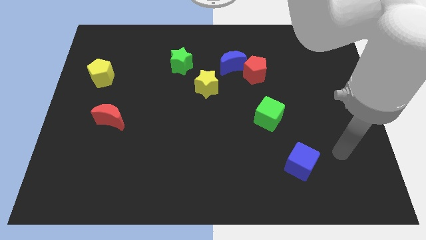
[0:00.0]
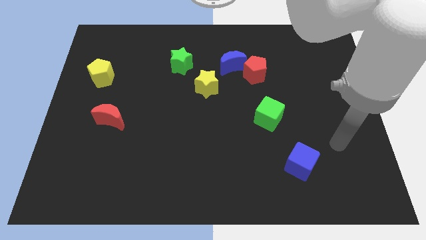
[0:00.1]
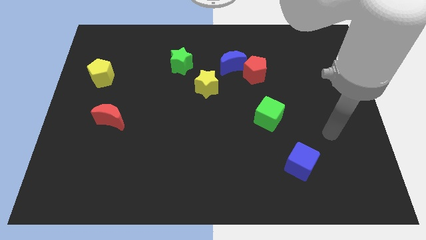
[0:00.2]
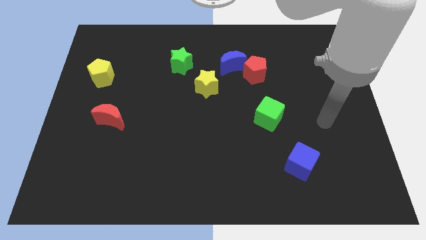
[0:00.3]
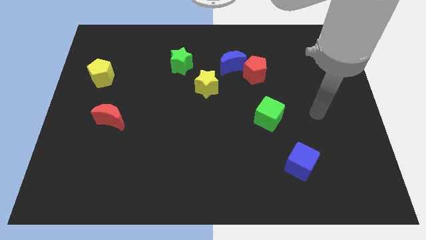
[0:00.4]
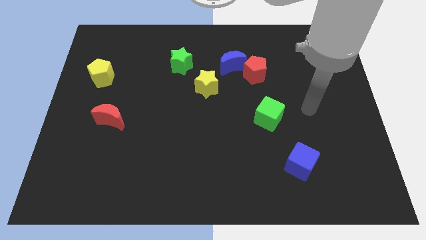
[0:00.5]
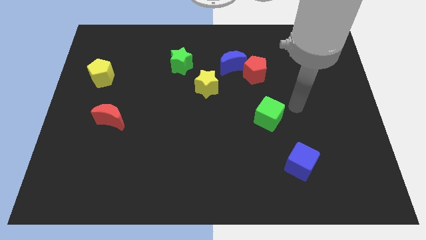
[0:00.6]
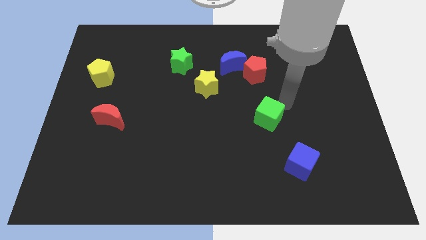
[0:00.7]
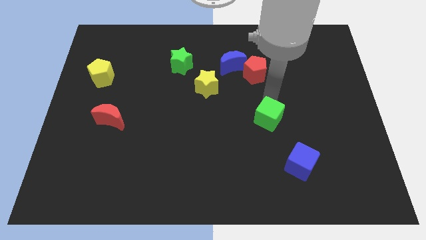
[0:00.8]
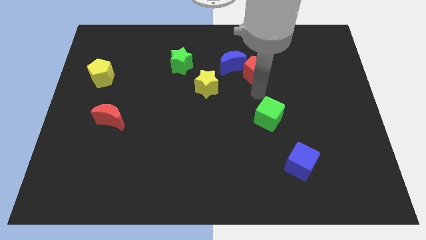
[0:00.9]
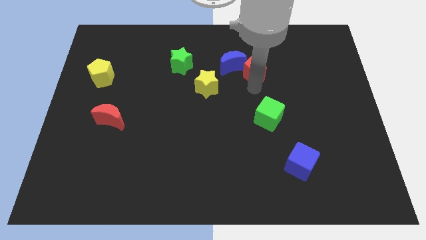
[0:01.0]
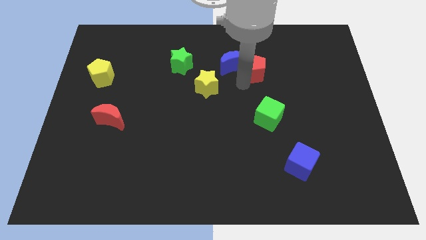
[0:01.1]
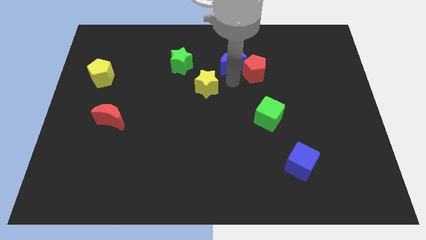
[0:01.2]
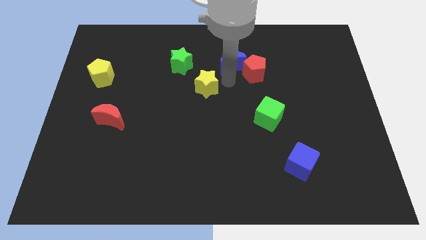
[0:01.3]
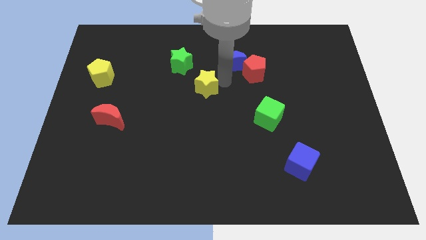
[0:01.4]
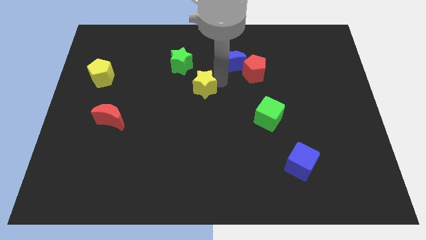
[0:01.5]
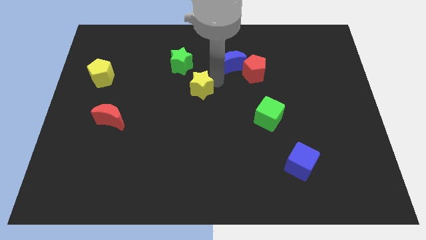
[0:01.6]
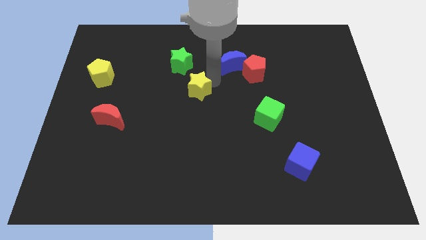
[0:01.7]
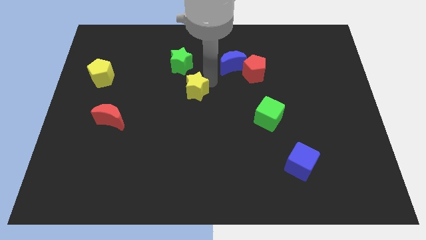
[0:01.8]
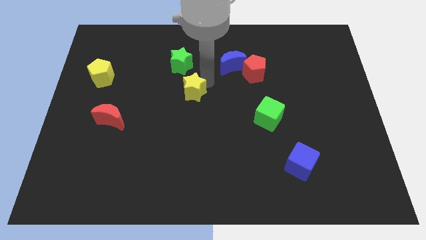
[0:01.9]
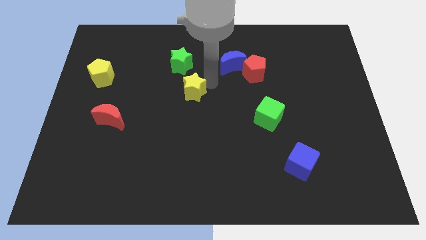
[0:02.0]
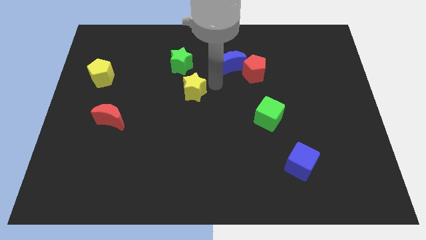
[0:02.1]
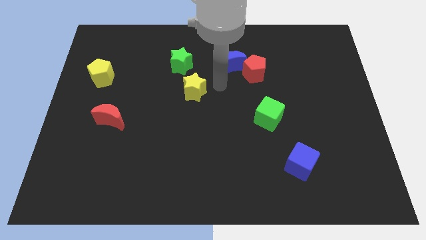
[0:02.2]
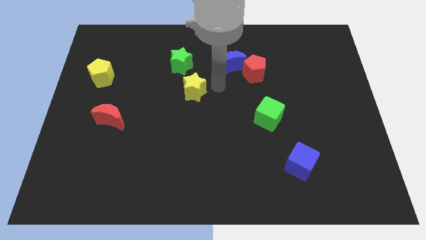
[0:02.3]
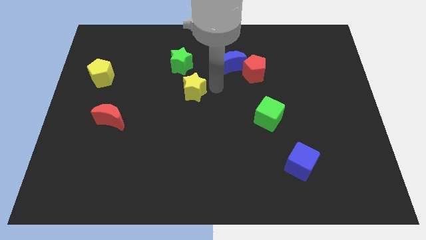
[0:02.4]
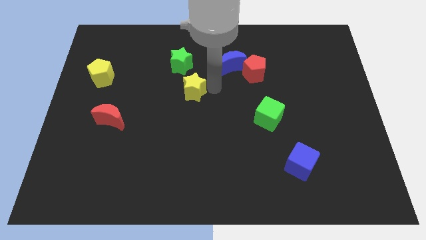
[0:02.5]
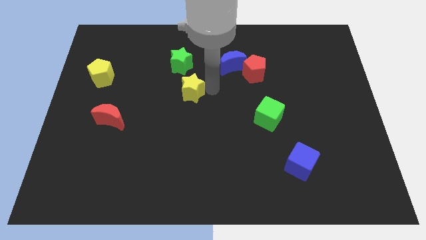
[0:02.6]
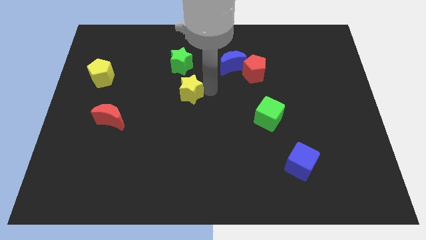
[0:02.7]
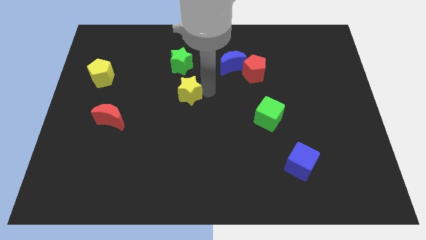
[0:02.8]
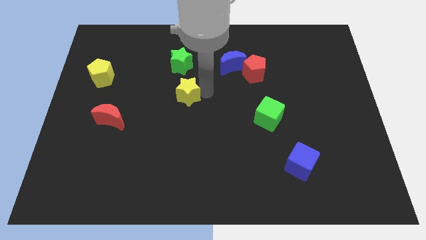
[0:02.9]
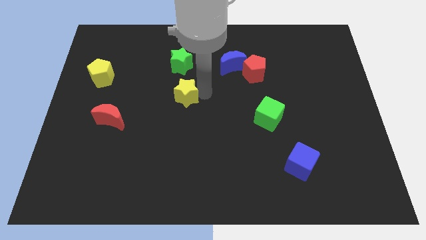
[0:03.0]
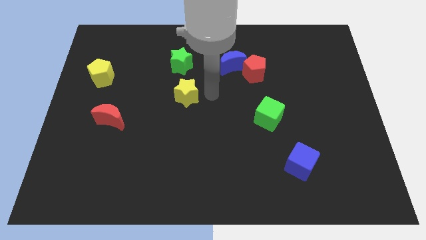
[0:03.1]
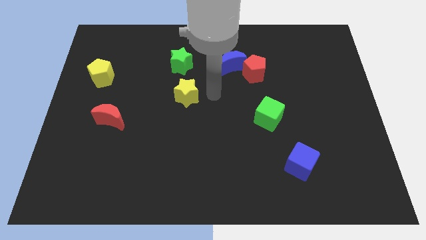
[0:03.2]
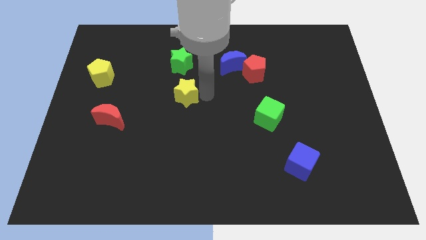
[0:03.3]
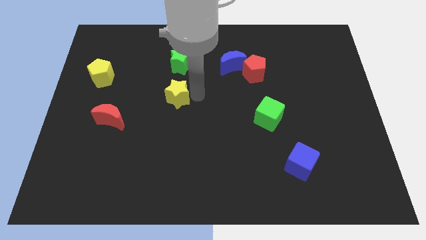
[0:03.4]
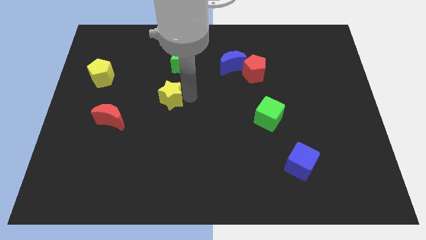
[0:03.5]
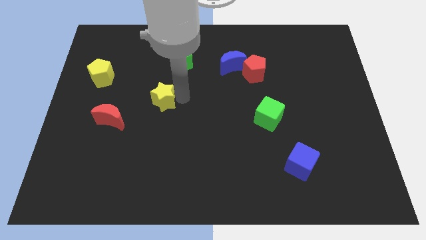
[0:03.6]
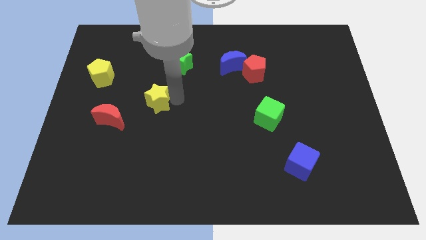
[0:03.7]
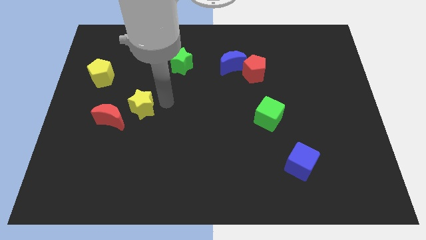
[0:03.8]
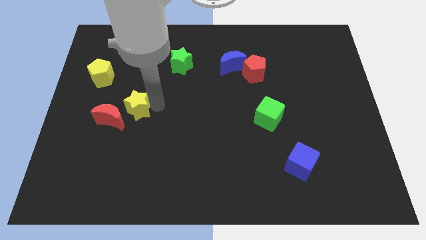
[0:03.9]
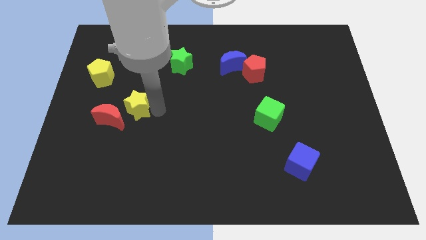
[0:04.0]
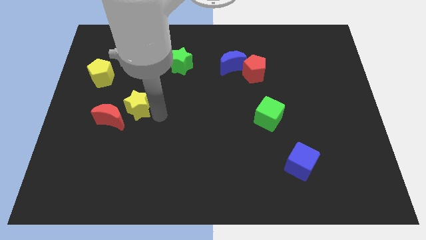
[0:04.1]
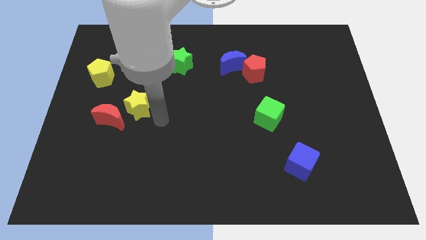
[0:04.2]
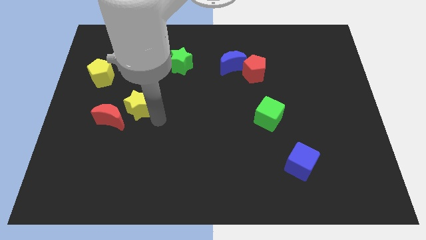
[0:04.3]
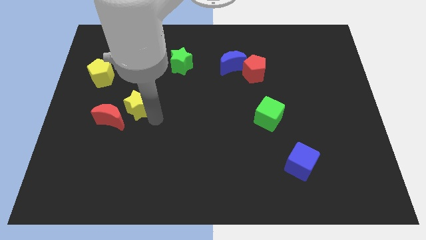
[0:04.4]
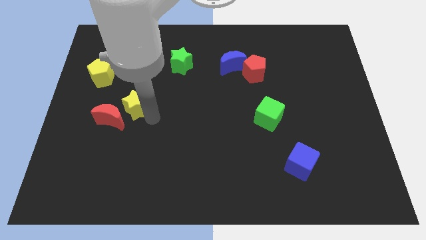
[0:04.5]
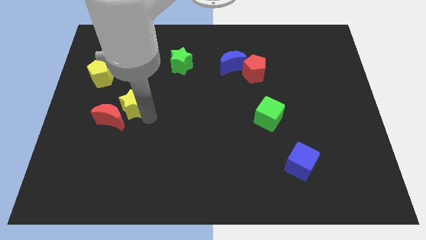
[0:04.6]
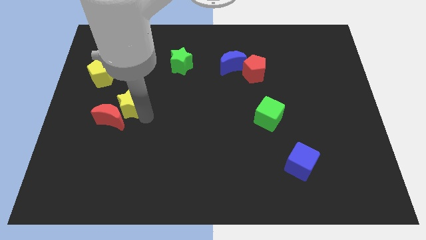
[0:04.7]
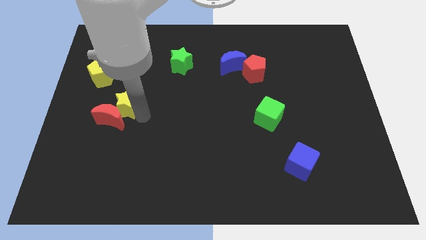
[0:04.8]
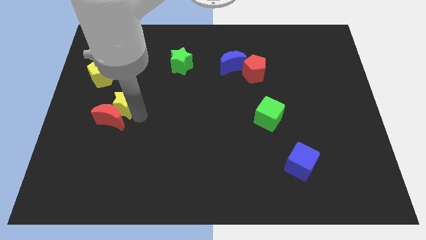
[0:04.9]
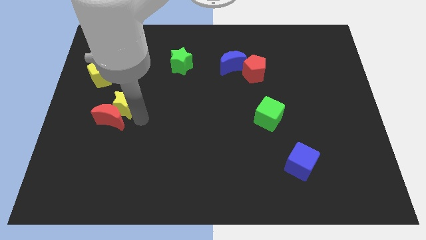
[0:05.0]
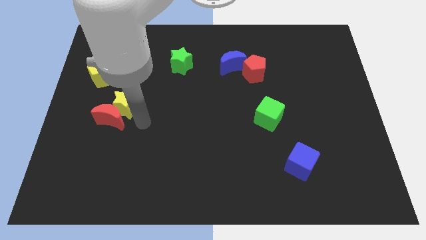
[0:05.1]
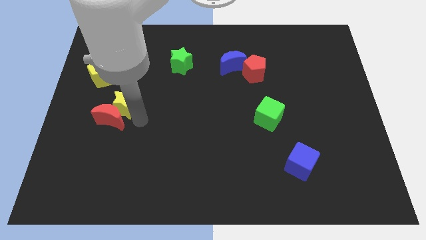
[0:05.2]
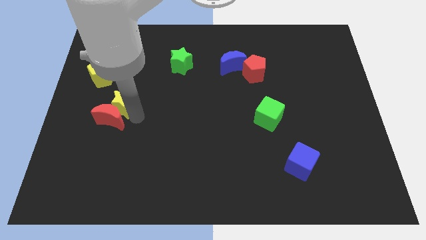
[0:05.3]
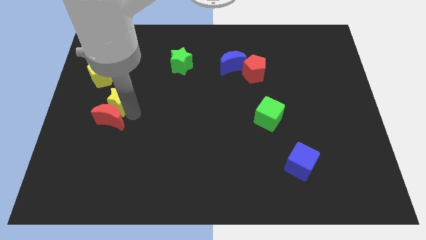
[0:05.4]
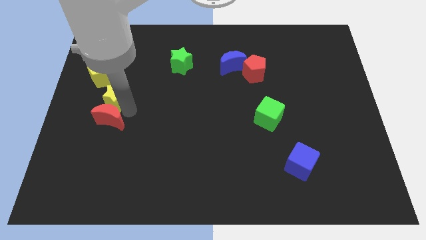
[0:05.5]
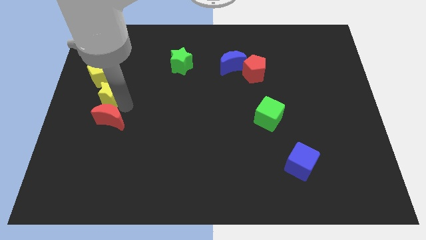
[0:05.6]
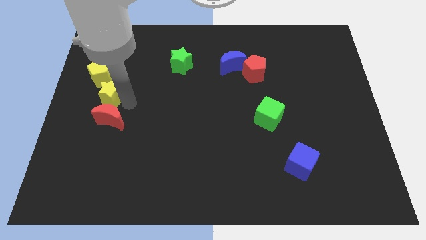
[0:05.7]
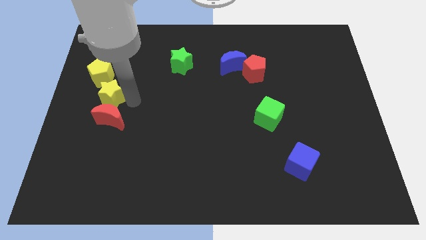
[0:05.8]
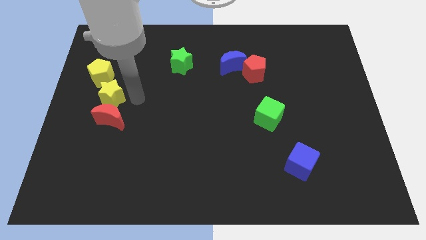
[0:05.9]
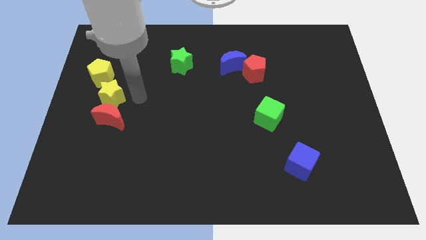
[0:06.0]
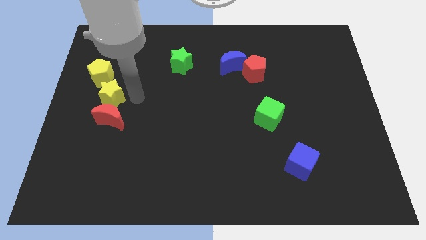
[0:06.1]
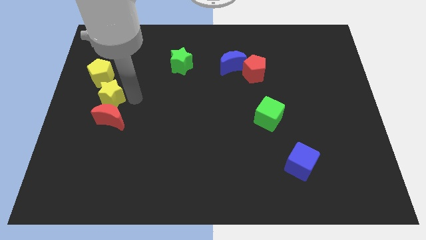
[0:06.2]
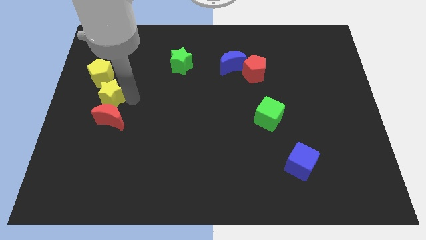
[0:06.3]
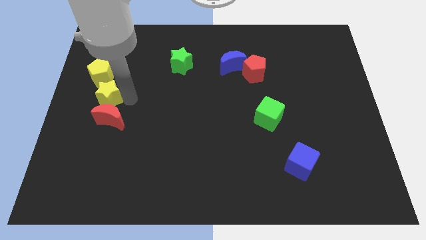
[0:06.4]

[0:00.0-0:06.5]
move the yellow star to the left side
